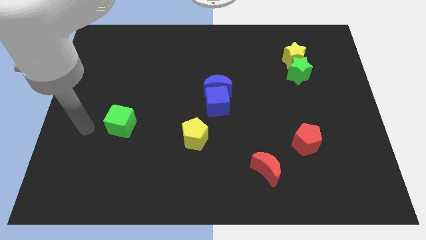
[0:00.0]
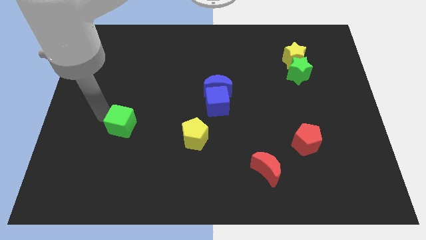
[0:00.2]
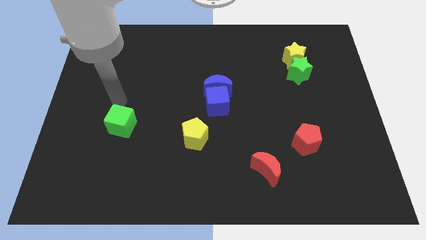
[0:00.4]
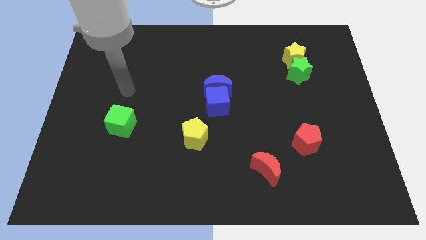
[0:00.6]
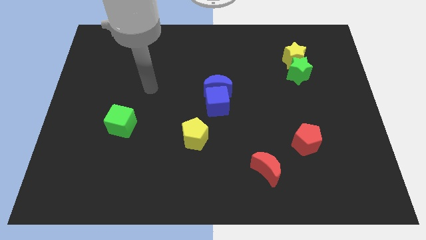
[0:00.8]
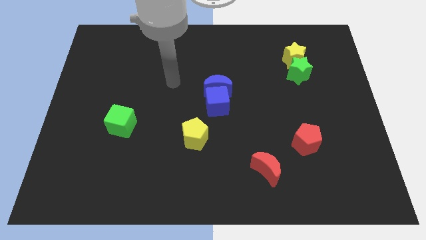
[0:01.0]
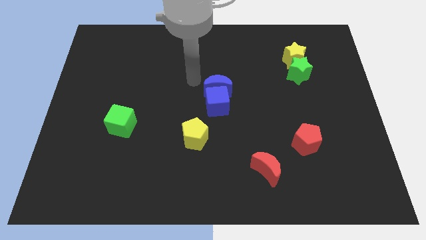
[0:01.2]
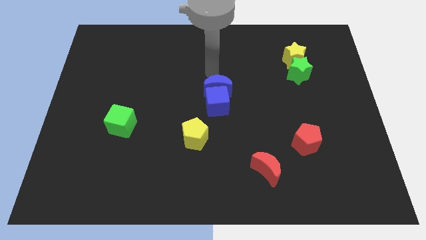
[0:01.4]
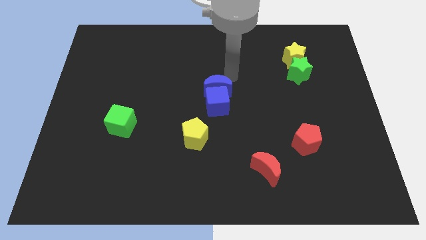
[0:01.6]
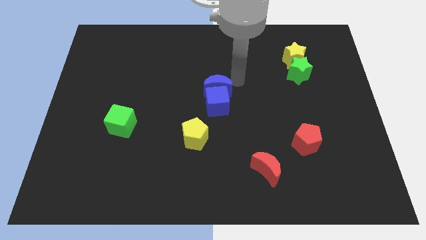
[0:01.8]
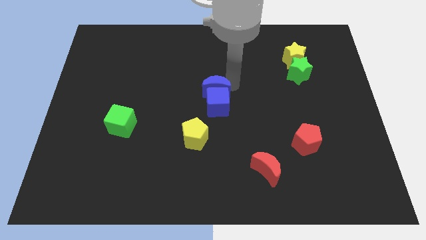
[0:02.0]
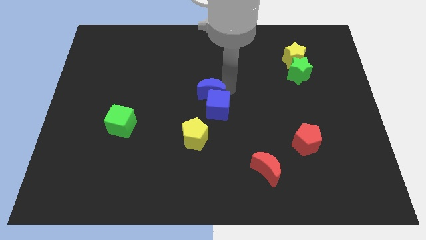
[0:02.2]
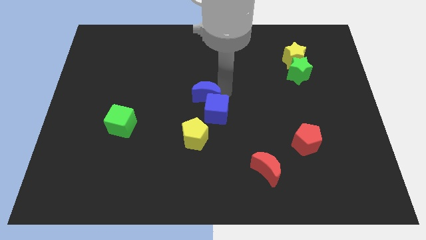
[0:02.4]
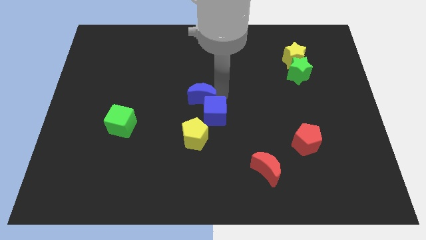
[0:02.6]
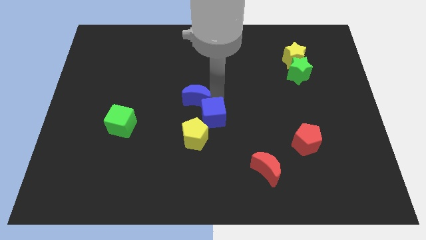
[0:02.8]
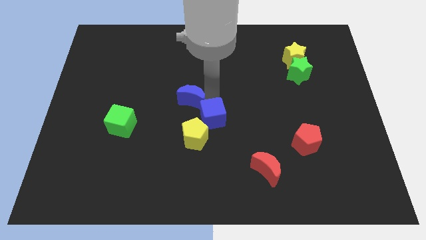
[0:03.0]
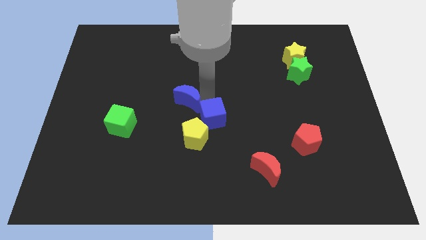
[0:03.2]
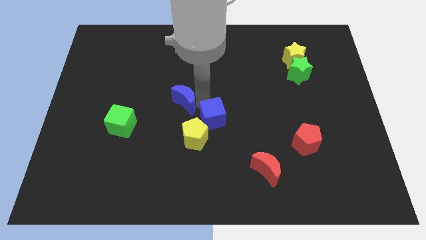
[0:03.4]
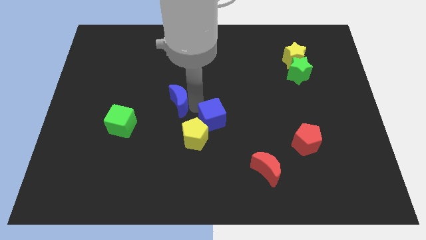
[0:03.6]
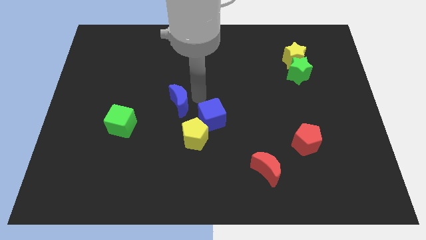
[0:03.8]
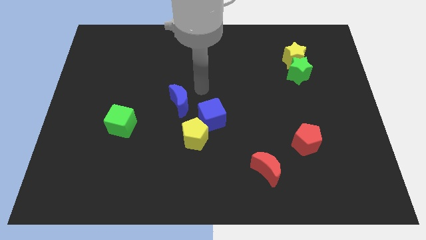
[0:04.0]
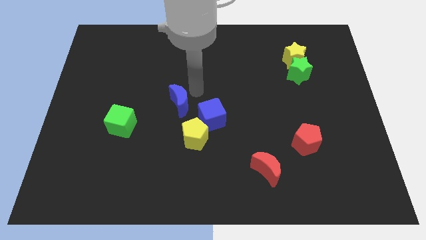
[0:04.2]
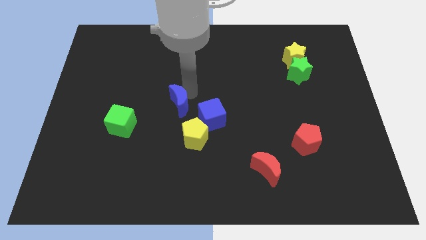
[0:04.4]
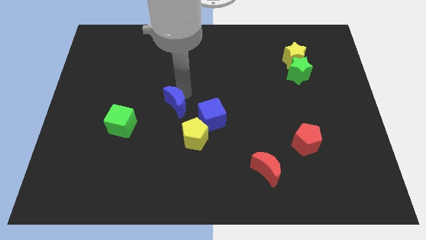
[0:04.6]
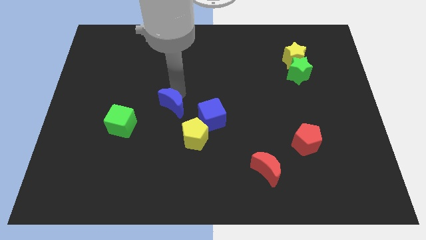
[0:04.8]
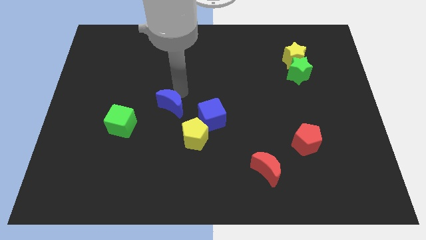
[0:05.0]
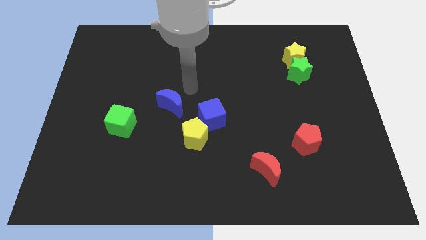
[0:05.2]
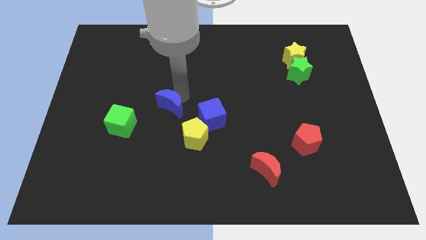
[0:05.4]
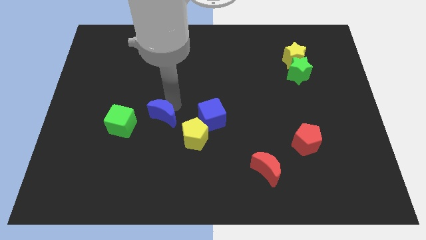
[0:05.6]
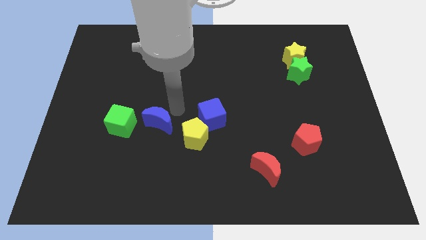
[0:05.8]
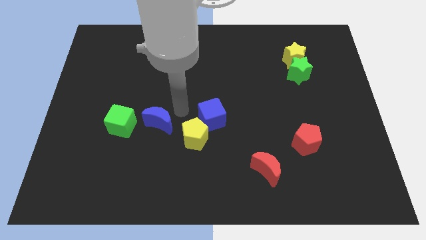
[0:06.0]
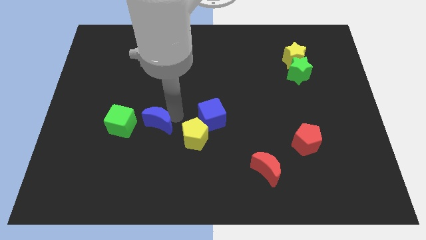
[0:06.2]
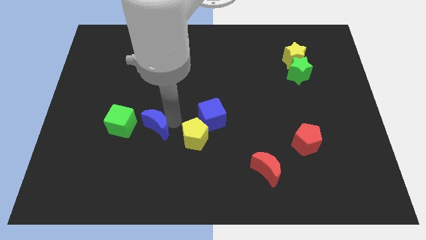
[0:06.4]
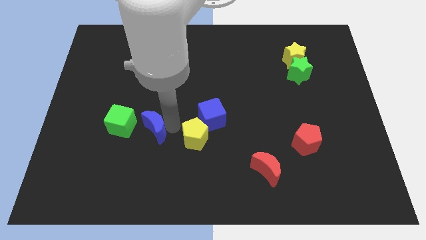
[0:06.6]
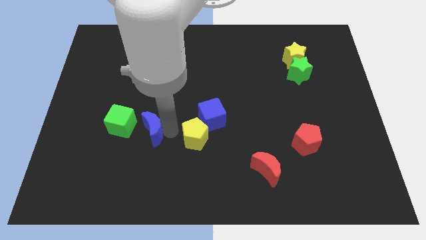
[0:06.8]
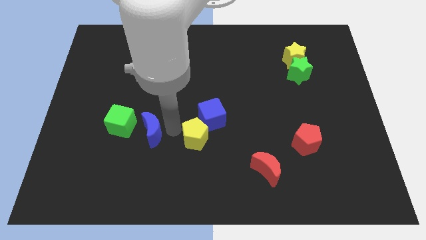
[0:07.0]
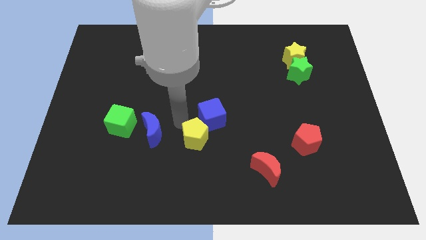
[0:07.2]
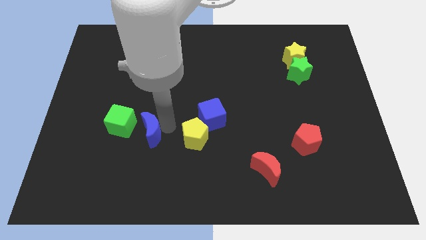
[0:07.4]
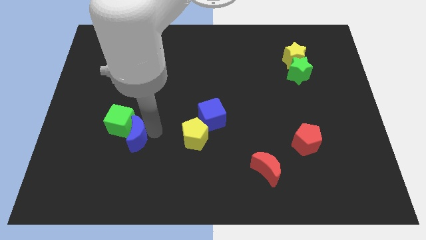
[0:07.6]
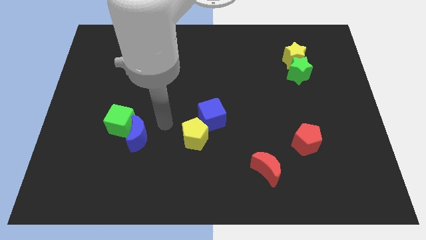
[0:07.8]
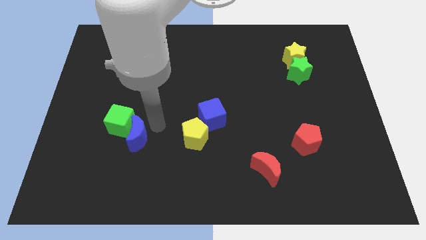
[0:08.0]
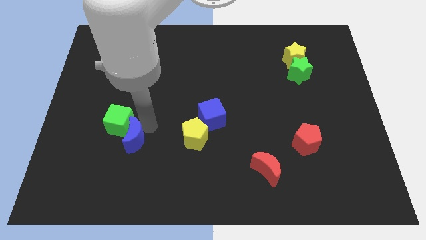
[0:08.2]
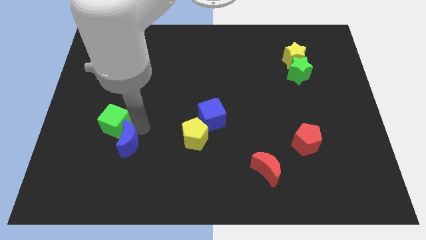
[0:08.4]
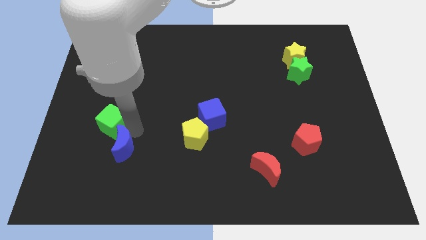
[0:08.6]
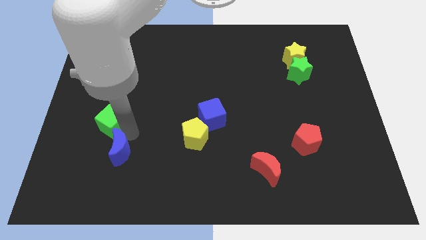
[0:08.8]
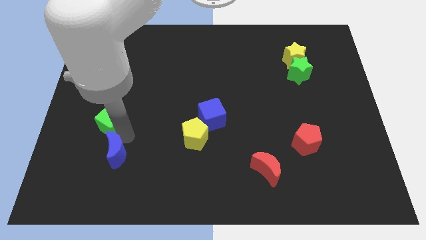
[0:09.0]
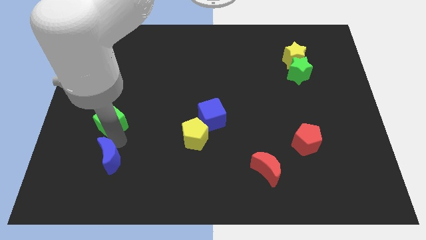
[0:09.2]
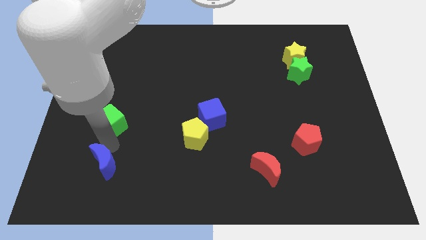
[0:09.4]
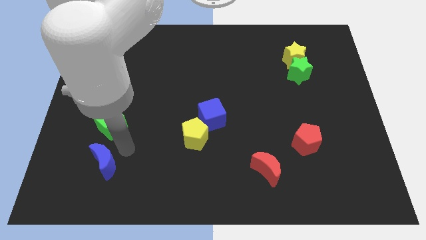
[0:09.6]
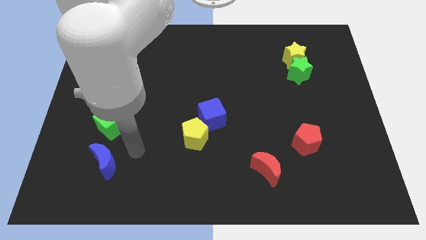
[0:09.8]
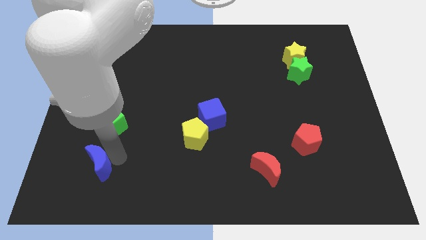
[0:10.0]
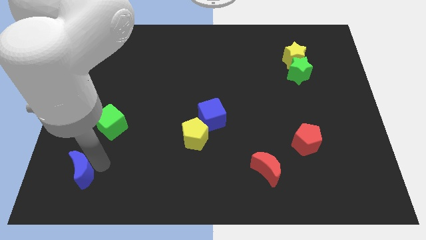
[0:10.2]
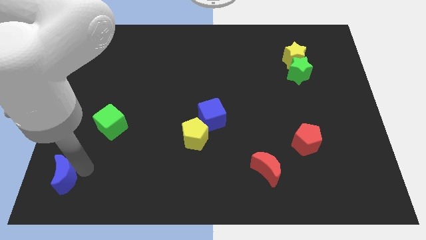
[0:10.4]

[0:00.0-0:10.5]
put the blue moon to the bottom left

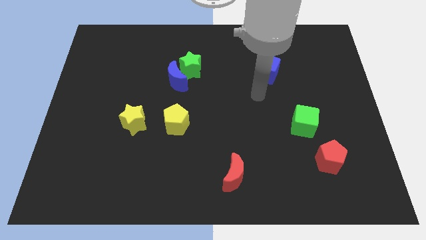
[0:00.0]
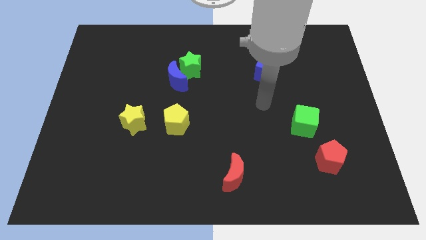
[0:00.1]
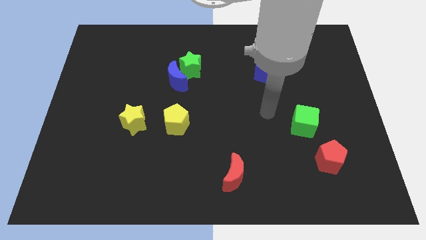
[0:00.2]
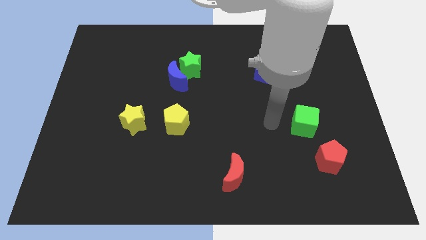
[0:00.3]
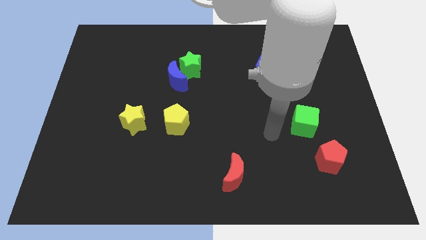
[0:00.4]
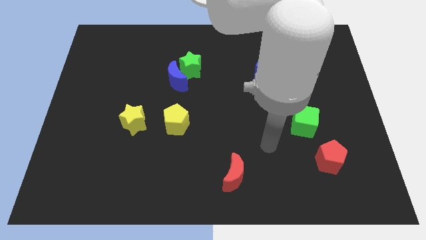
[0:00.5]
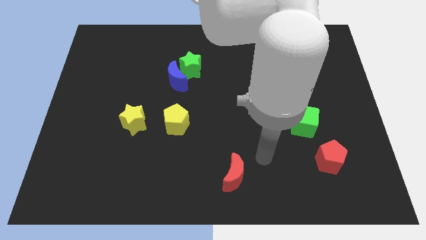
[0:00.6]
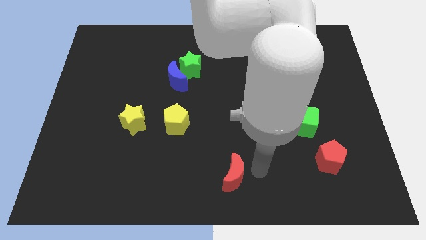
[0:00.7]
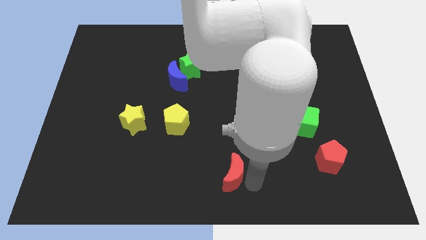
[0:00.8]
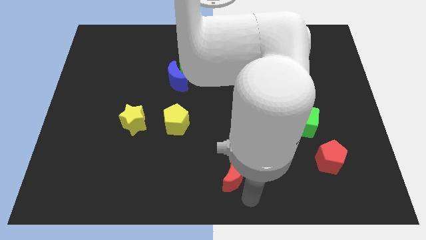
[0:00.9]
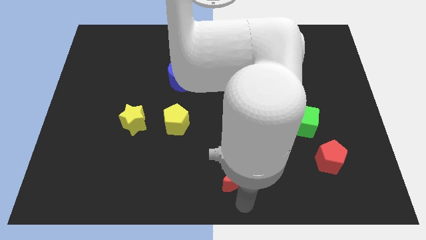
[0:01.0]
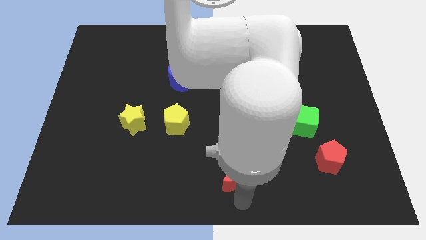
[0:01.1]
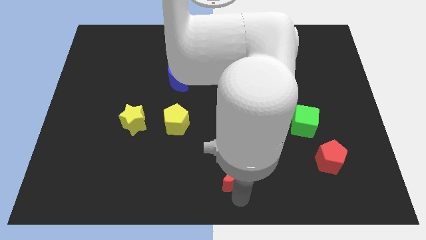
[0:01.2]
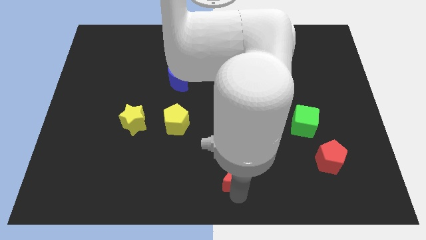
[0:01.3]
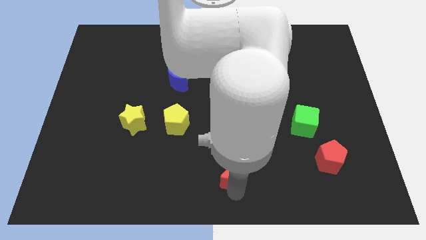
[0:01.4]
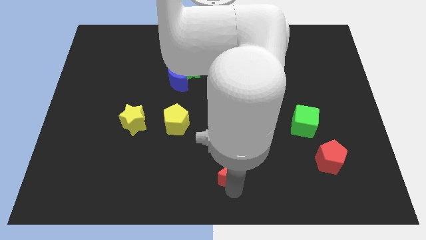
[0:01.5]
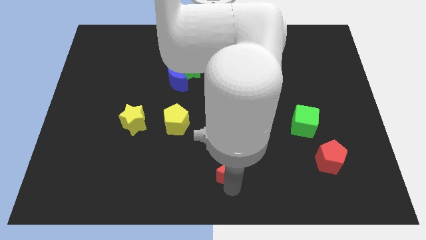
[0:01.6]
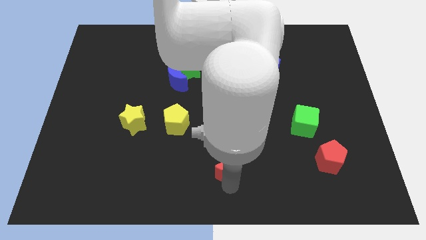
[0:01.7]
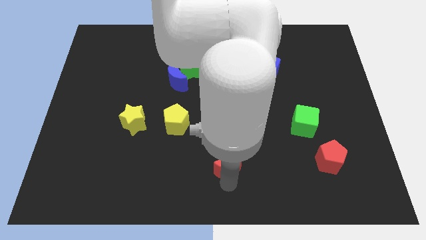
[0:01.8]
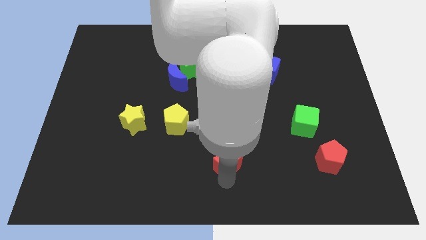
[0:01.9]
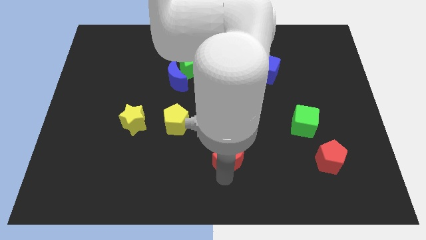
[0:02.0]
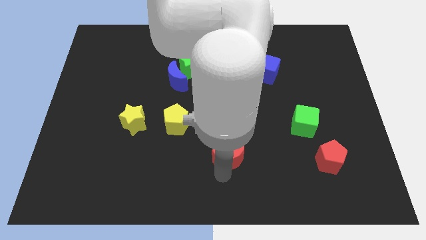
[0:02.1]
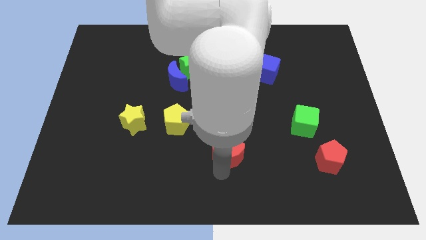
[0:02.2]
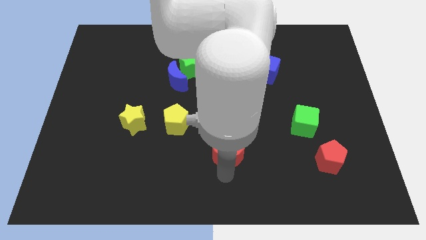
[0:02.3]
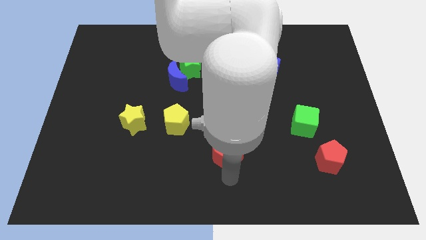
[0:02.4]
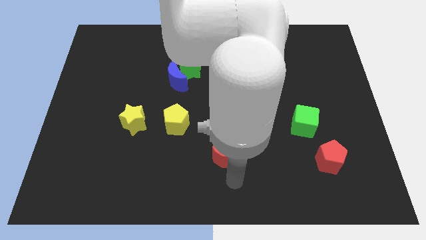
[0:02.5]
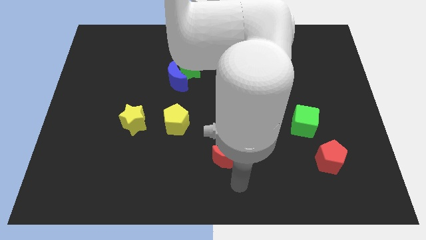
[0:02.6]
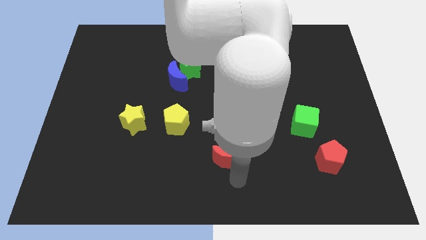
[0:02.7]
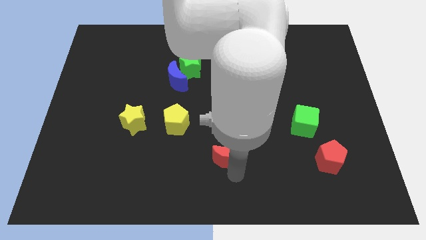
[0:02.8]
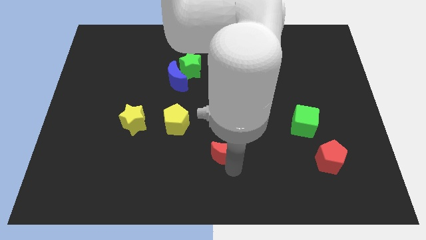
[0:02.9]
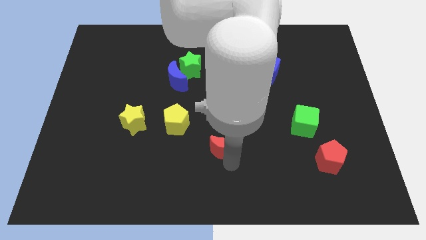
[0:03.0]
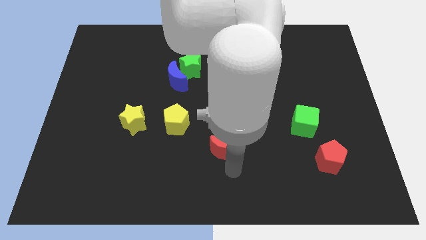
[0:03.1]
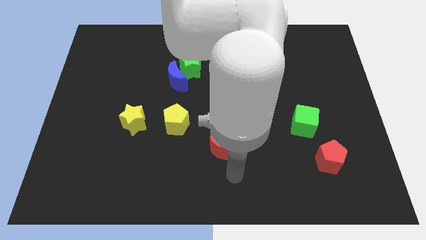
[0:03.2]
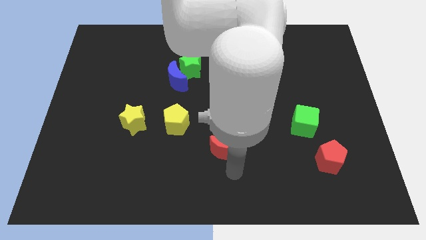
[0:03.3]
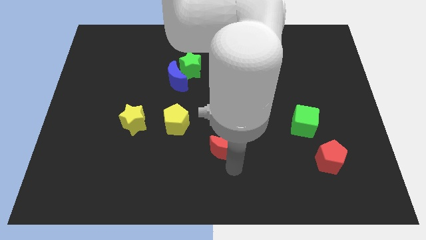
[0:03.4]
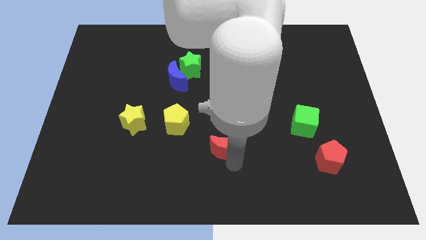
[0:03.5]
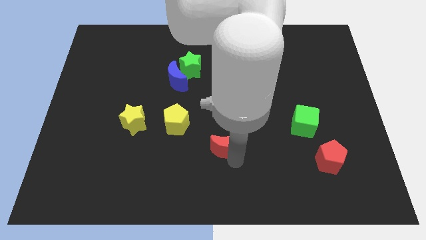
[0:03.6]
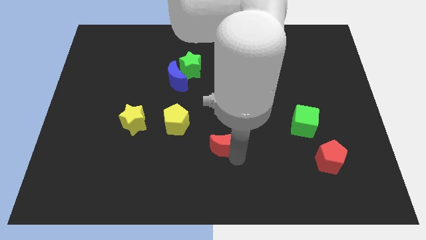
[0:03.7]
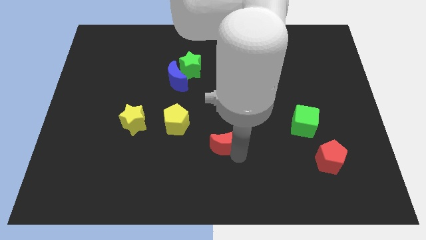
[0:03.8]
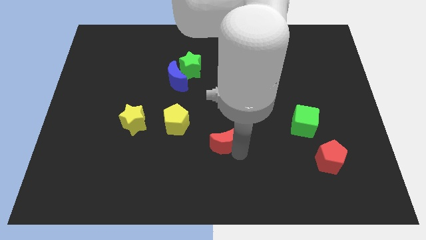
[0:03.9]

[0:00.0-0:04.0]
slide the red moon to the center
